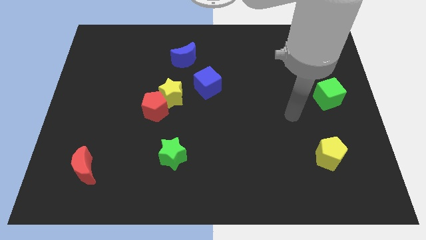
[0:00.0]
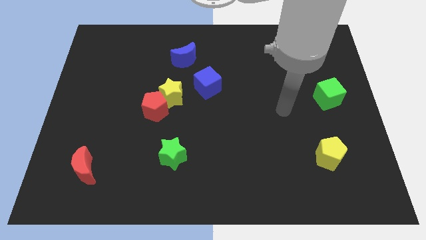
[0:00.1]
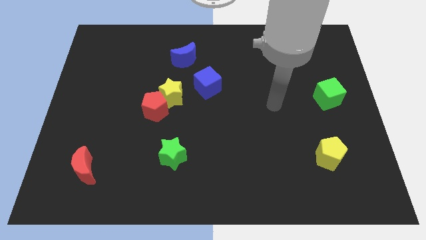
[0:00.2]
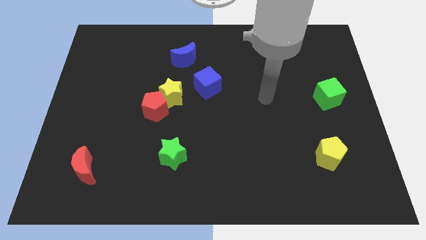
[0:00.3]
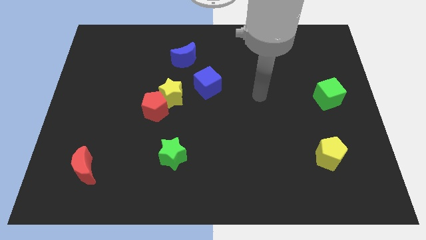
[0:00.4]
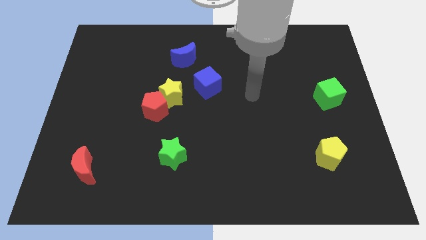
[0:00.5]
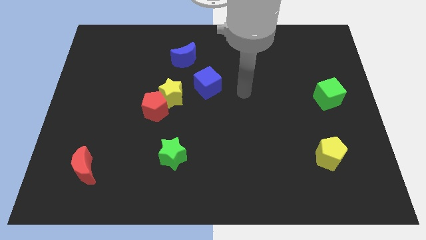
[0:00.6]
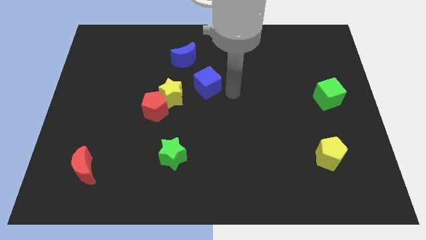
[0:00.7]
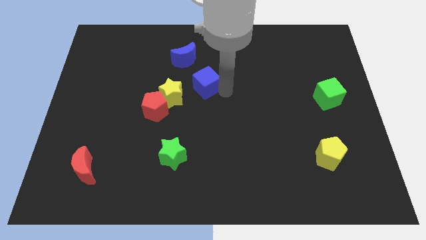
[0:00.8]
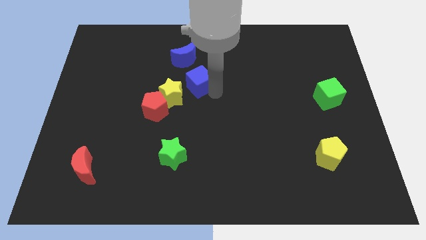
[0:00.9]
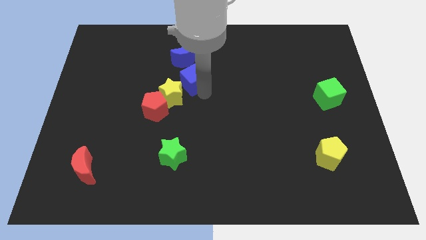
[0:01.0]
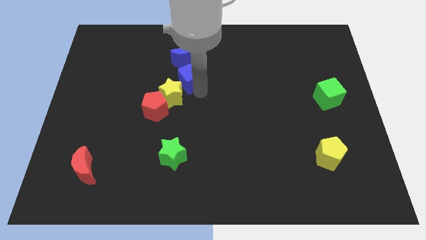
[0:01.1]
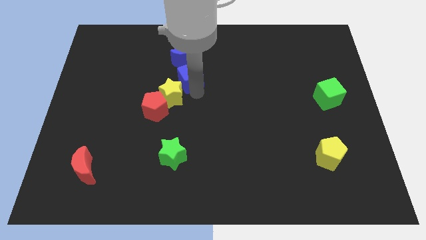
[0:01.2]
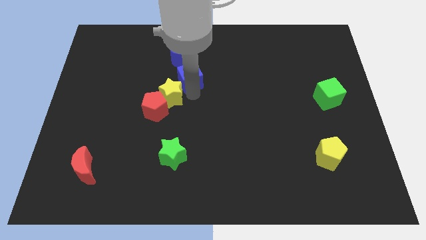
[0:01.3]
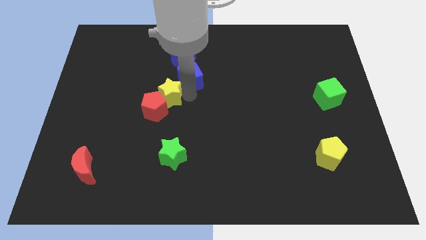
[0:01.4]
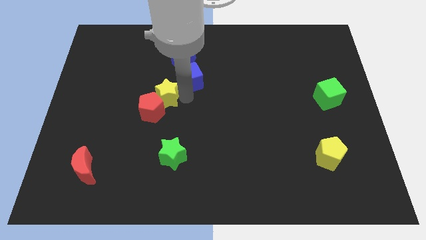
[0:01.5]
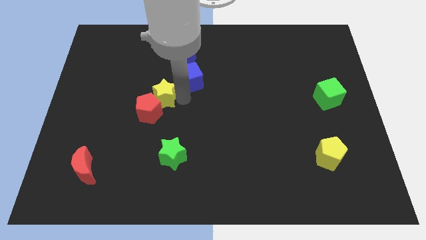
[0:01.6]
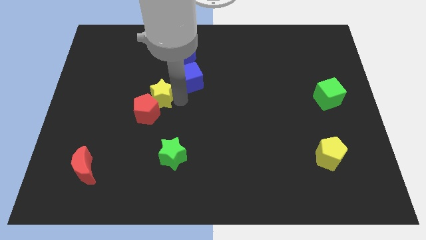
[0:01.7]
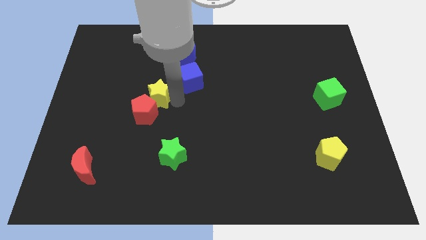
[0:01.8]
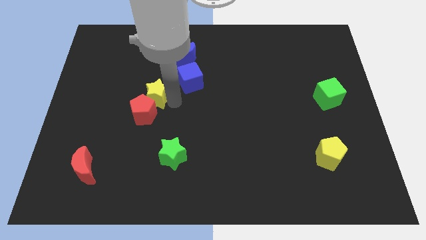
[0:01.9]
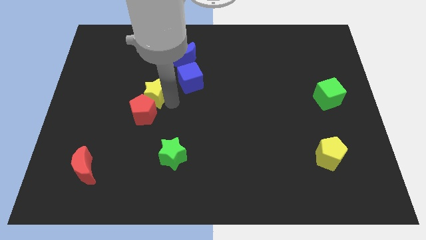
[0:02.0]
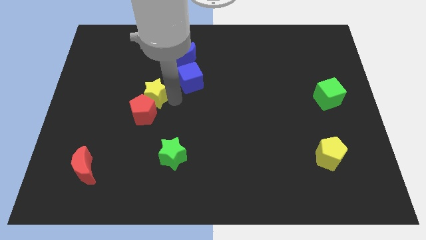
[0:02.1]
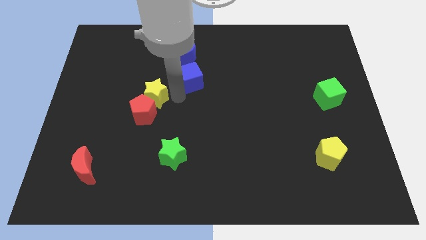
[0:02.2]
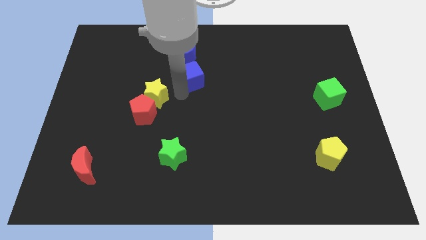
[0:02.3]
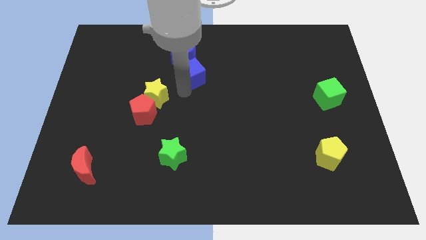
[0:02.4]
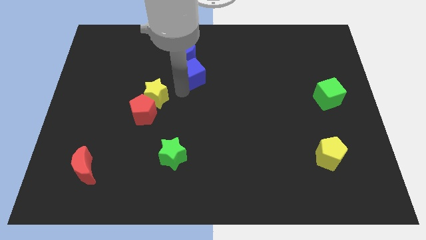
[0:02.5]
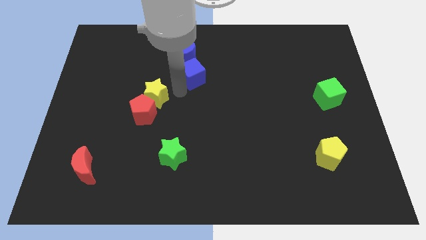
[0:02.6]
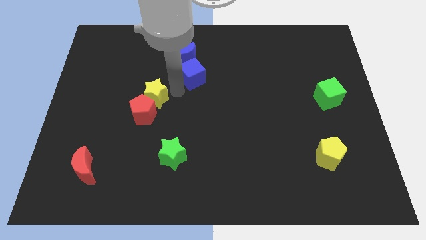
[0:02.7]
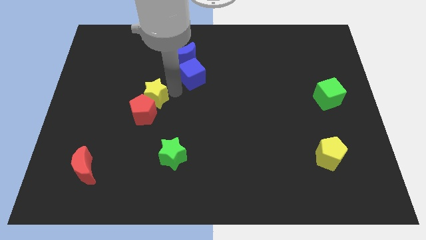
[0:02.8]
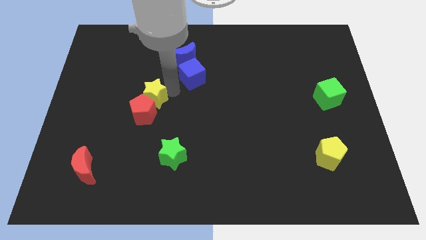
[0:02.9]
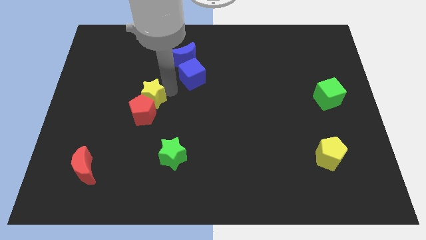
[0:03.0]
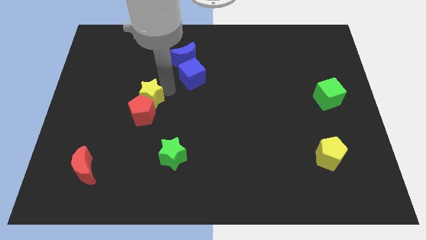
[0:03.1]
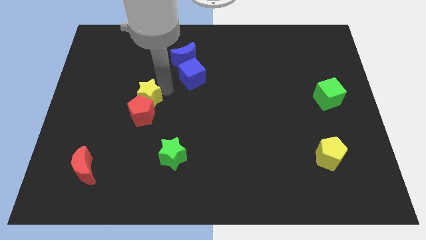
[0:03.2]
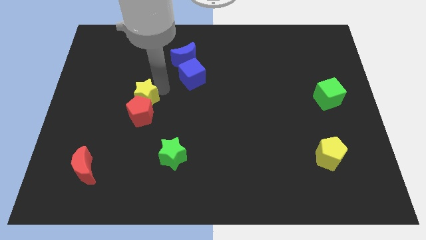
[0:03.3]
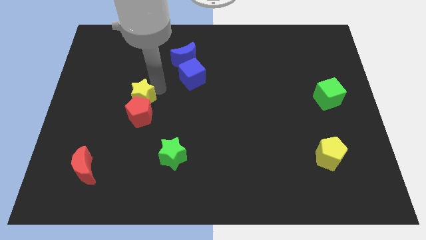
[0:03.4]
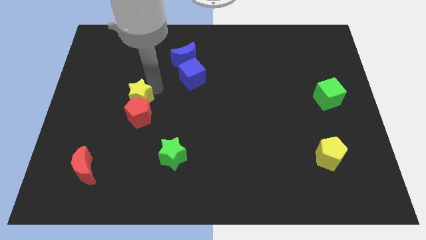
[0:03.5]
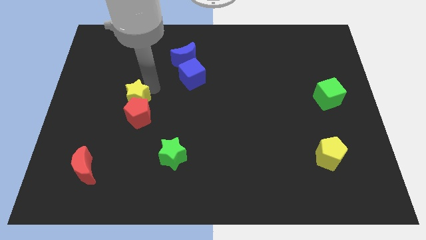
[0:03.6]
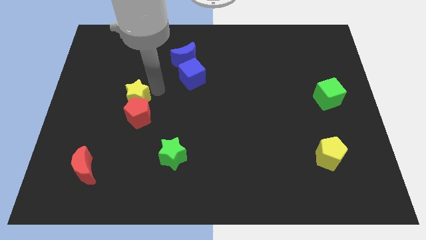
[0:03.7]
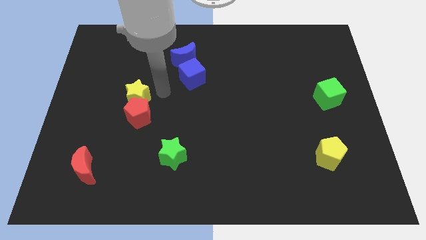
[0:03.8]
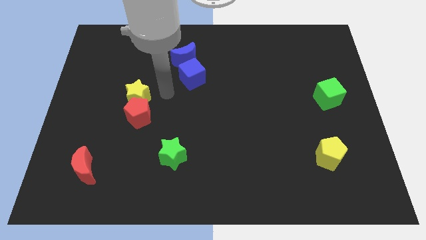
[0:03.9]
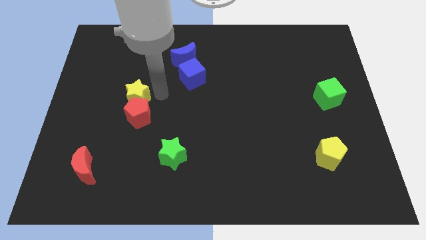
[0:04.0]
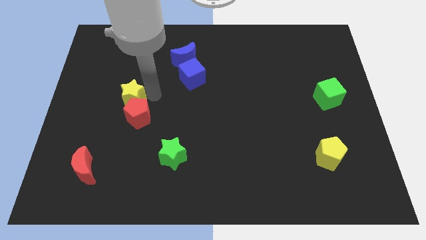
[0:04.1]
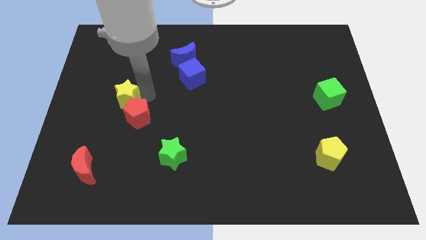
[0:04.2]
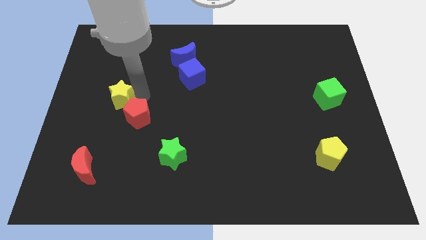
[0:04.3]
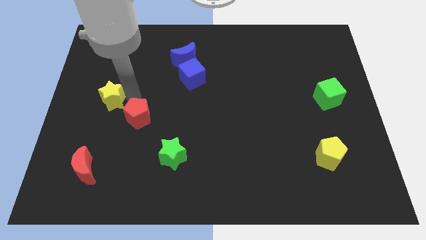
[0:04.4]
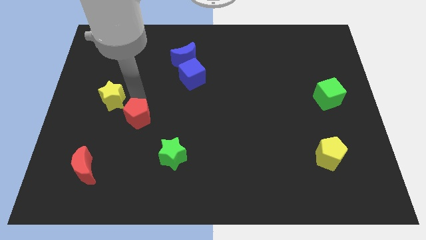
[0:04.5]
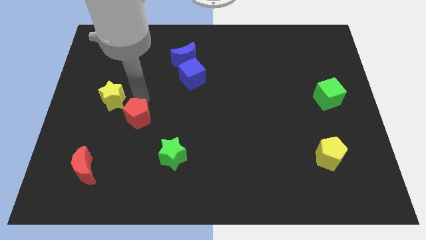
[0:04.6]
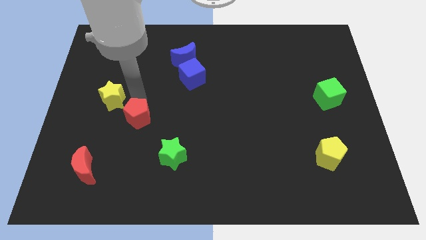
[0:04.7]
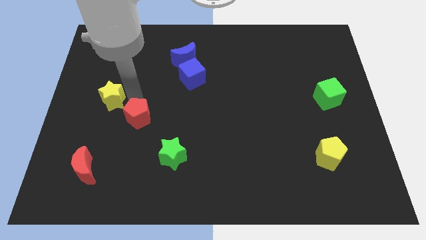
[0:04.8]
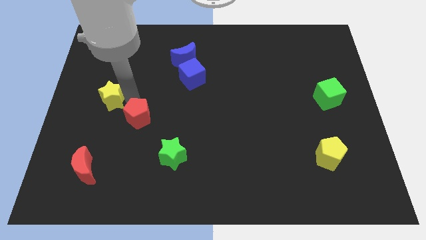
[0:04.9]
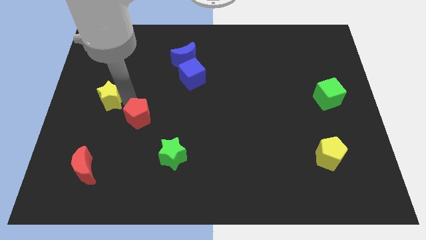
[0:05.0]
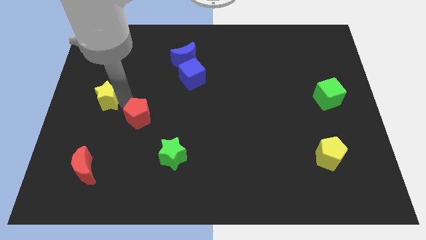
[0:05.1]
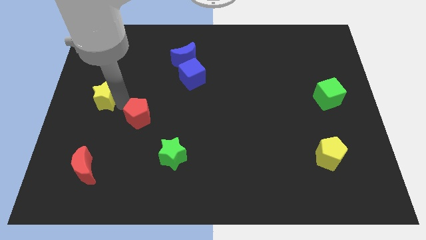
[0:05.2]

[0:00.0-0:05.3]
slide the yellow star to the left side
